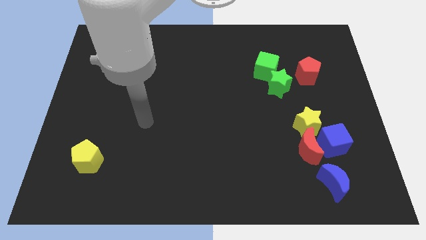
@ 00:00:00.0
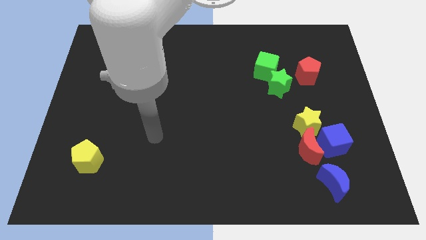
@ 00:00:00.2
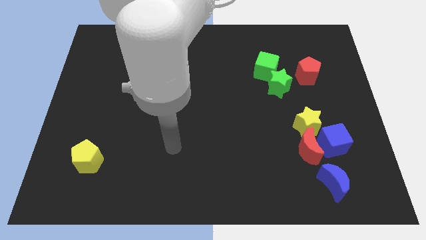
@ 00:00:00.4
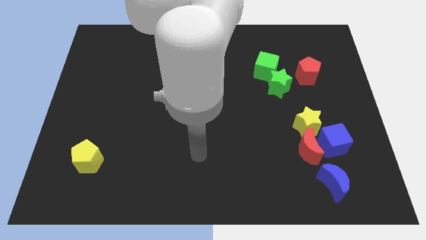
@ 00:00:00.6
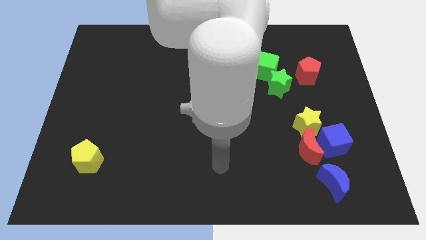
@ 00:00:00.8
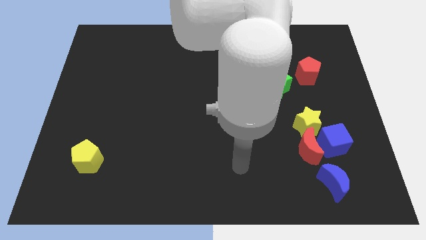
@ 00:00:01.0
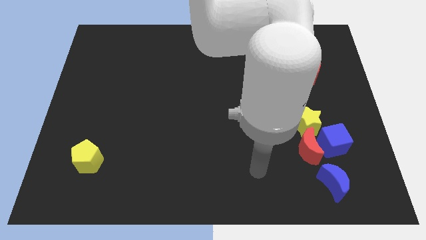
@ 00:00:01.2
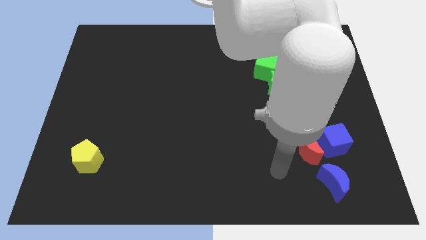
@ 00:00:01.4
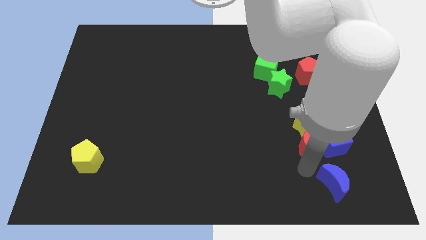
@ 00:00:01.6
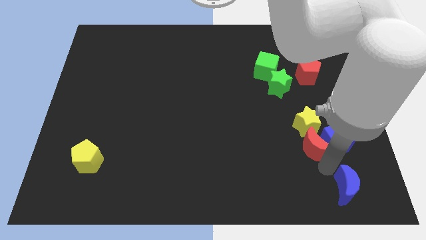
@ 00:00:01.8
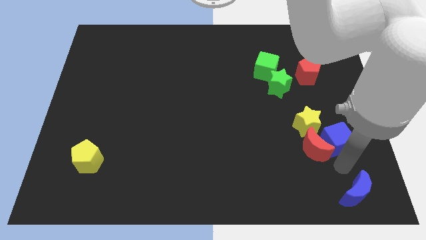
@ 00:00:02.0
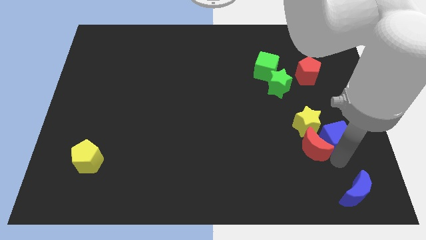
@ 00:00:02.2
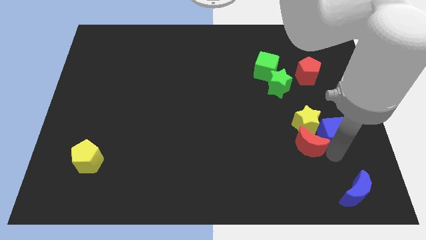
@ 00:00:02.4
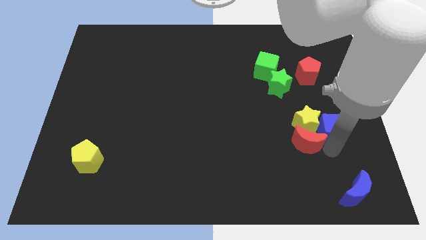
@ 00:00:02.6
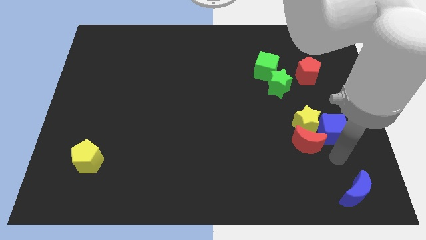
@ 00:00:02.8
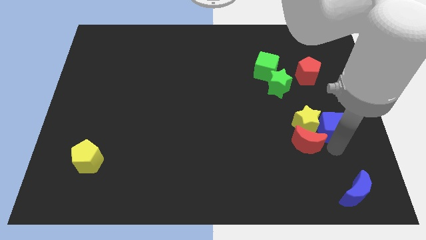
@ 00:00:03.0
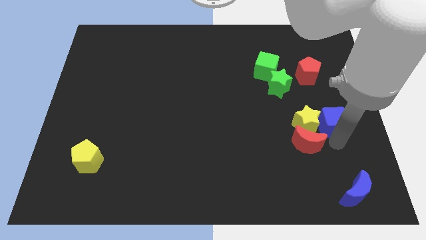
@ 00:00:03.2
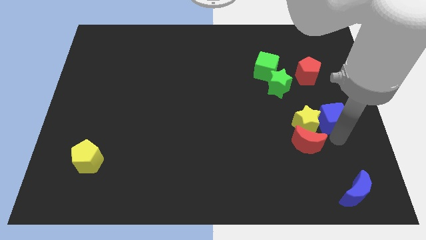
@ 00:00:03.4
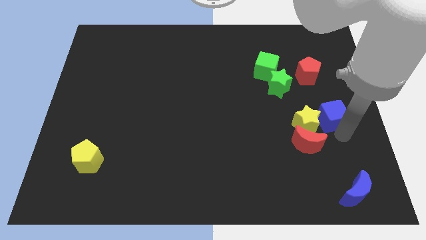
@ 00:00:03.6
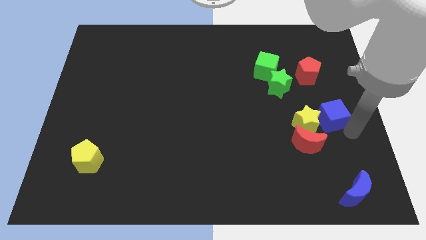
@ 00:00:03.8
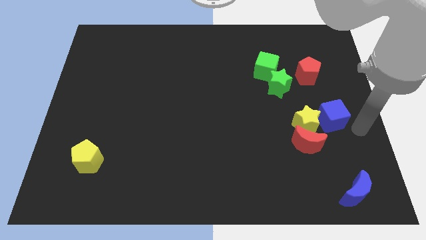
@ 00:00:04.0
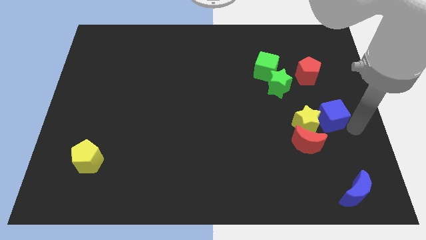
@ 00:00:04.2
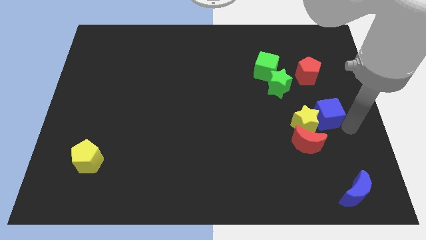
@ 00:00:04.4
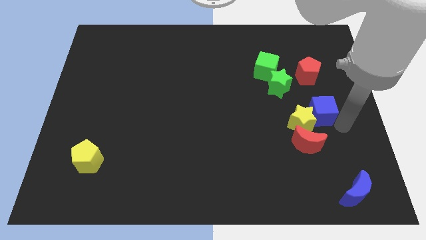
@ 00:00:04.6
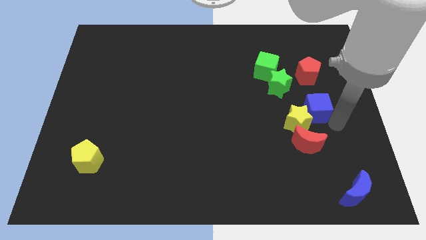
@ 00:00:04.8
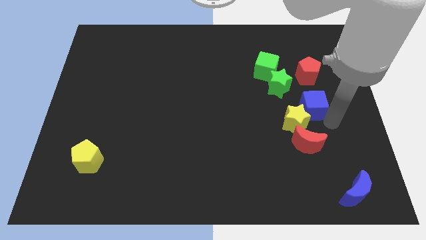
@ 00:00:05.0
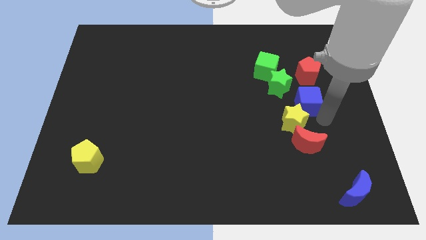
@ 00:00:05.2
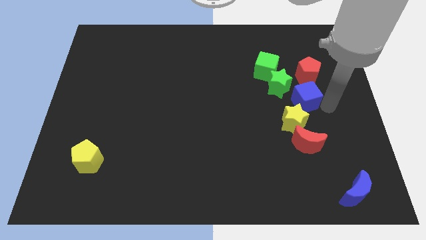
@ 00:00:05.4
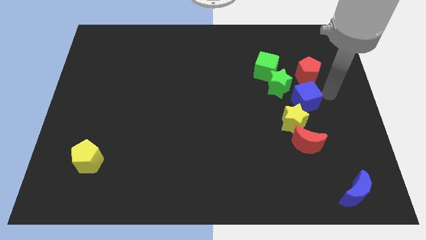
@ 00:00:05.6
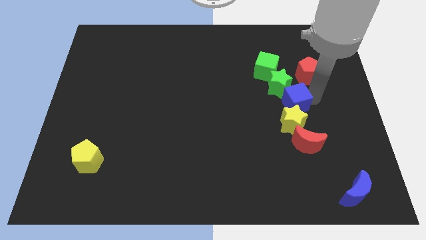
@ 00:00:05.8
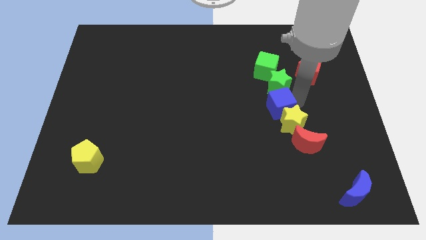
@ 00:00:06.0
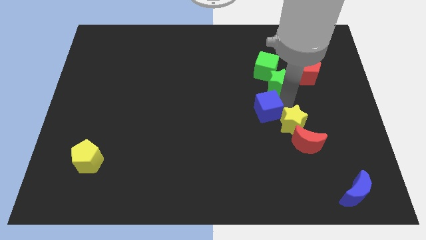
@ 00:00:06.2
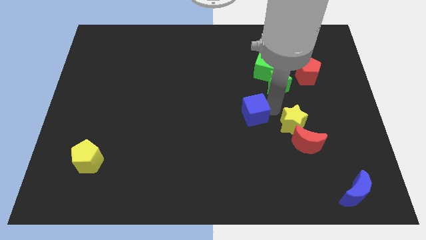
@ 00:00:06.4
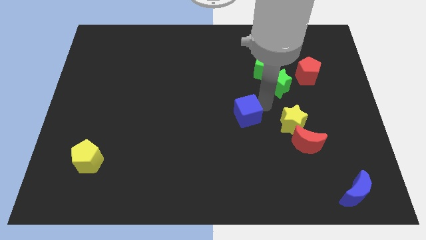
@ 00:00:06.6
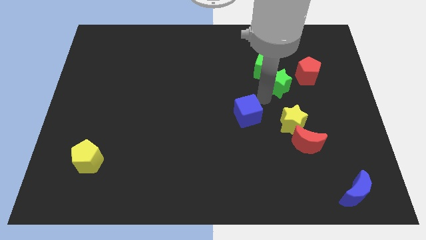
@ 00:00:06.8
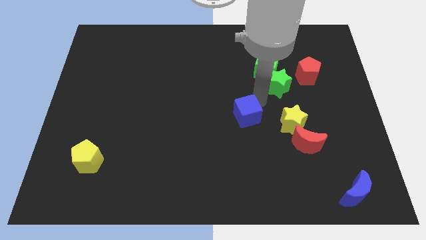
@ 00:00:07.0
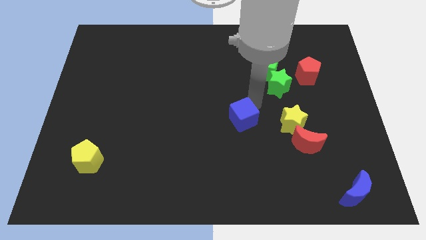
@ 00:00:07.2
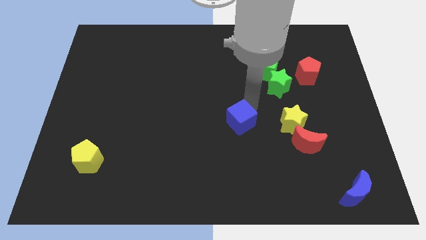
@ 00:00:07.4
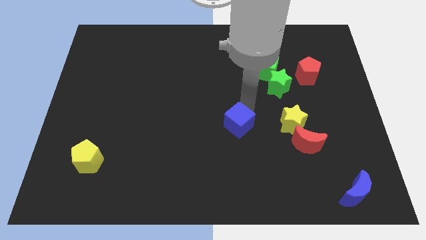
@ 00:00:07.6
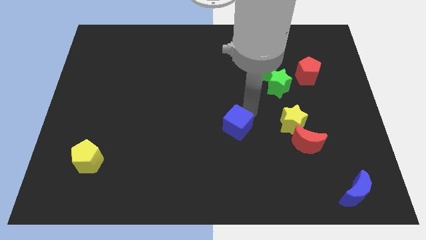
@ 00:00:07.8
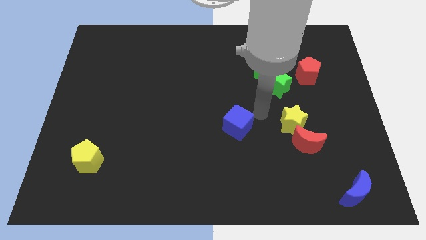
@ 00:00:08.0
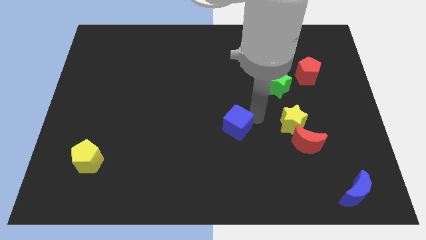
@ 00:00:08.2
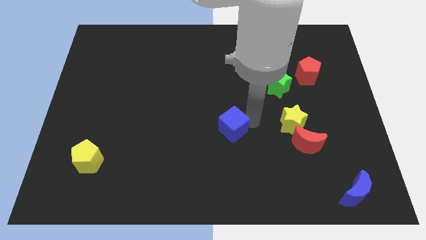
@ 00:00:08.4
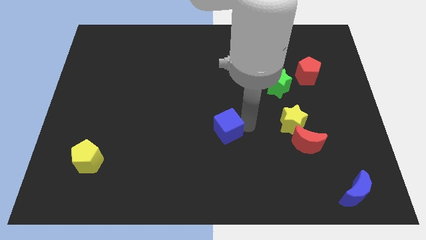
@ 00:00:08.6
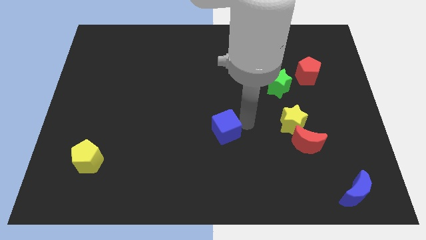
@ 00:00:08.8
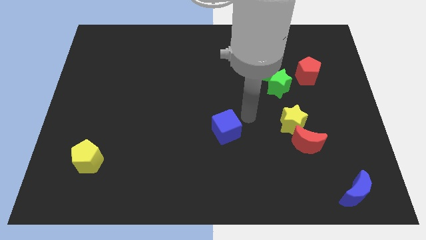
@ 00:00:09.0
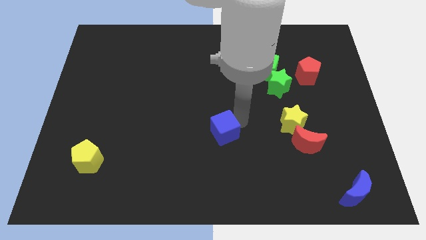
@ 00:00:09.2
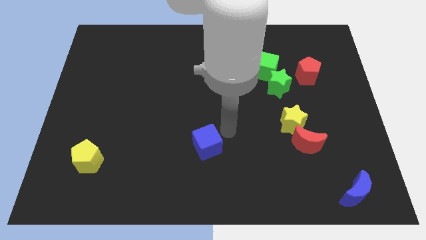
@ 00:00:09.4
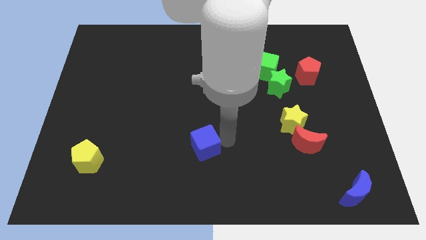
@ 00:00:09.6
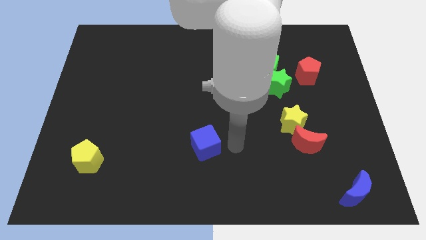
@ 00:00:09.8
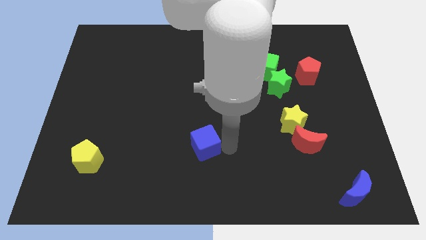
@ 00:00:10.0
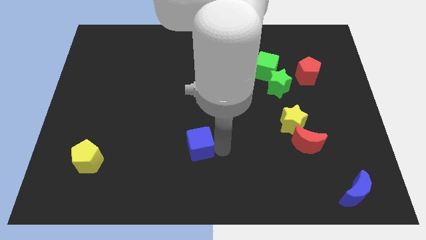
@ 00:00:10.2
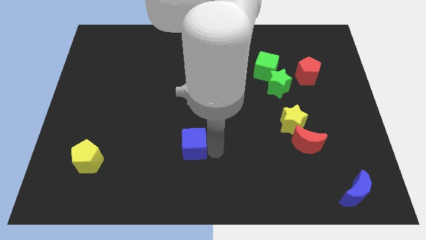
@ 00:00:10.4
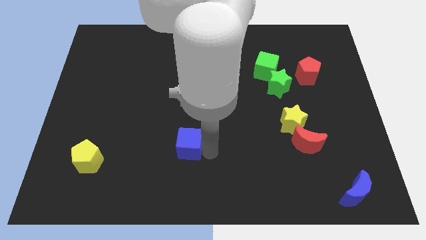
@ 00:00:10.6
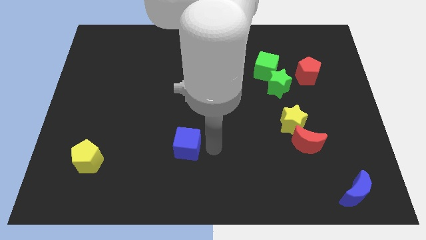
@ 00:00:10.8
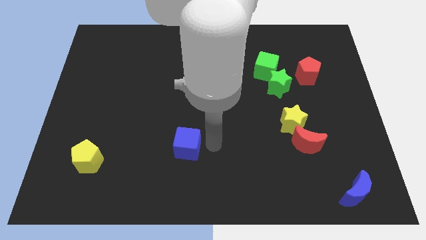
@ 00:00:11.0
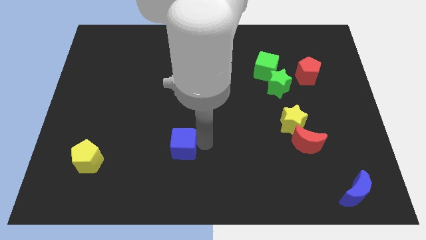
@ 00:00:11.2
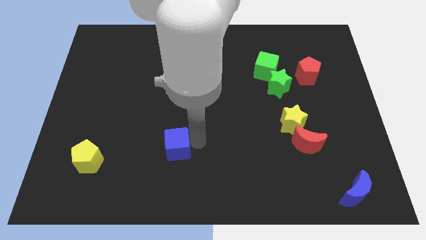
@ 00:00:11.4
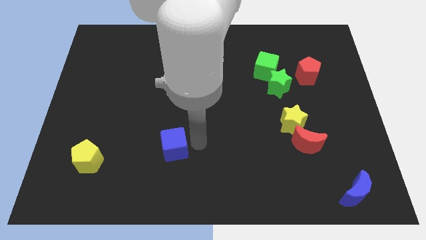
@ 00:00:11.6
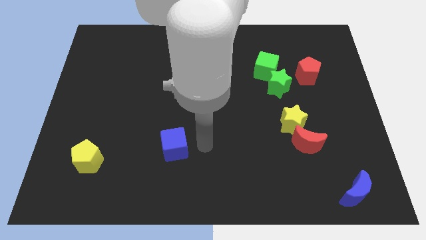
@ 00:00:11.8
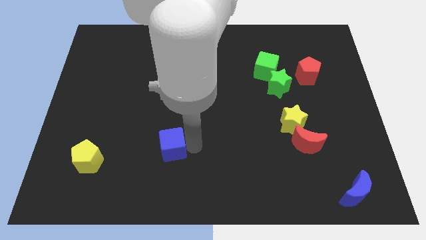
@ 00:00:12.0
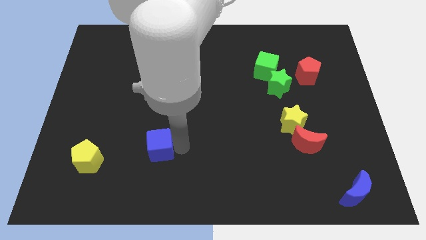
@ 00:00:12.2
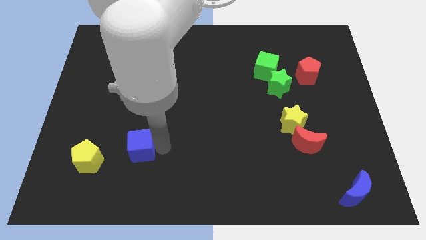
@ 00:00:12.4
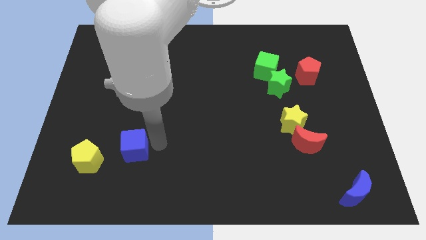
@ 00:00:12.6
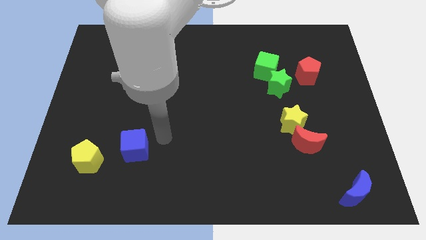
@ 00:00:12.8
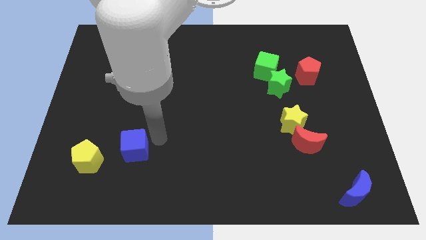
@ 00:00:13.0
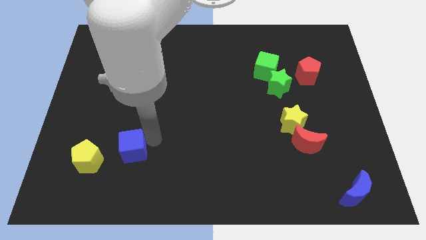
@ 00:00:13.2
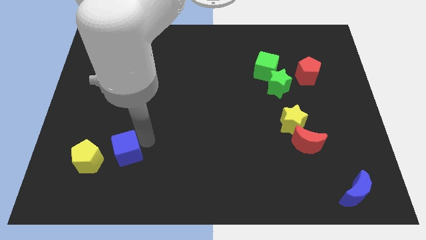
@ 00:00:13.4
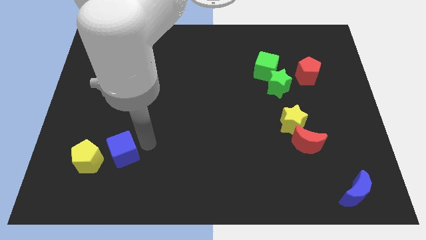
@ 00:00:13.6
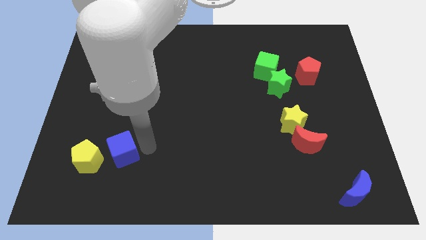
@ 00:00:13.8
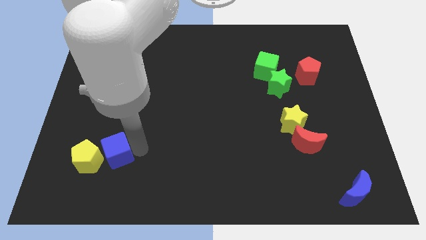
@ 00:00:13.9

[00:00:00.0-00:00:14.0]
push the blue cube to the yellow pentagon
